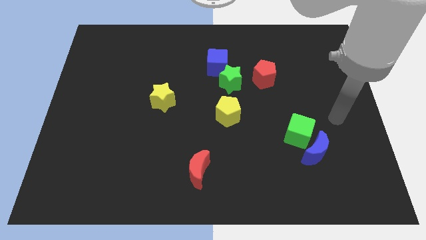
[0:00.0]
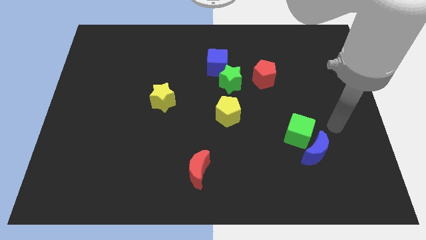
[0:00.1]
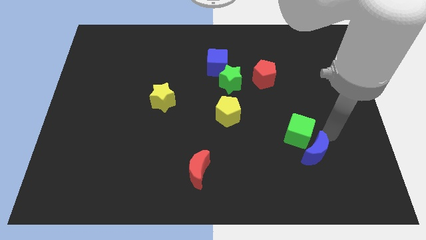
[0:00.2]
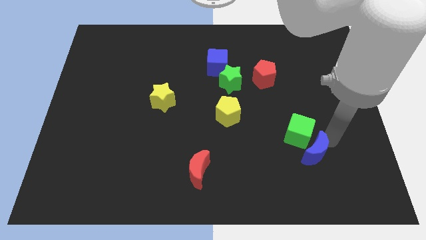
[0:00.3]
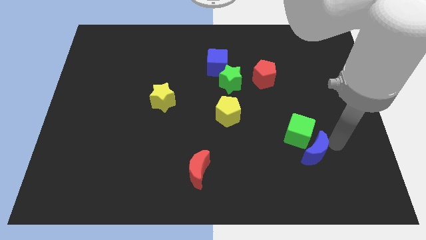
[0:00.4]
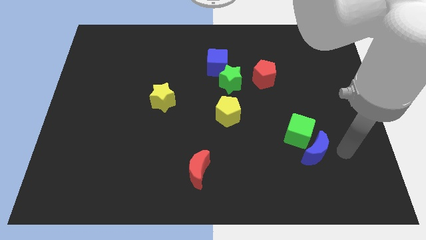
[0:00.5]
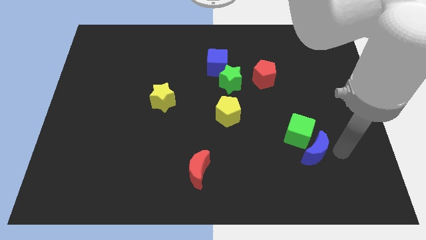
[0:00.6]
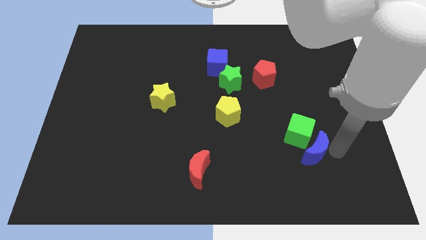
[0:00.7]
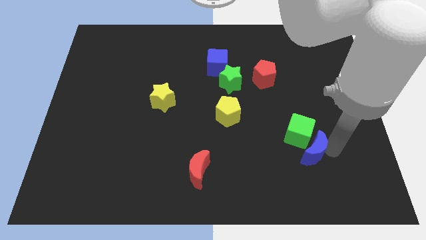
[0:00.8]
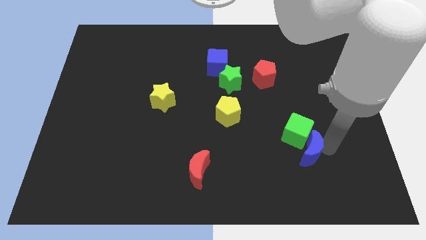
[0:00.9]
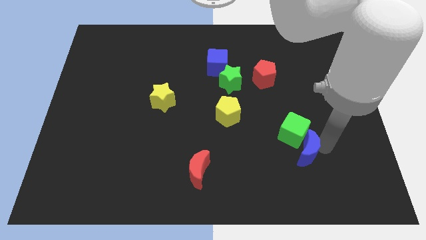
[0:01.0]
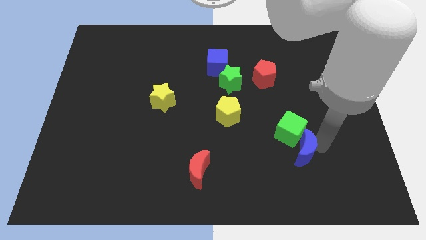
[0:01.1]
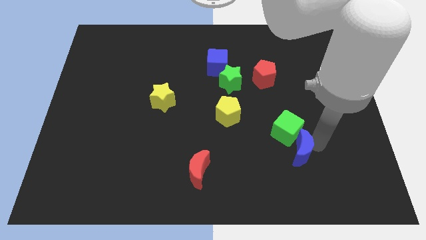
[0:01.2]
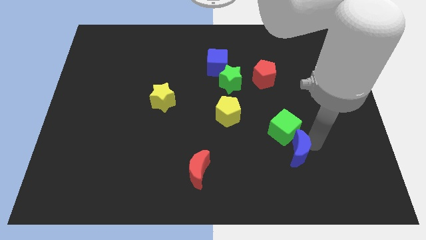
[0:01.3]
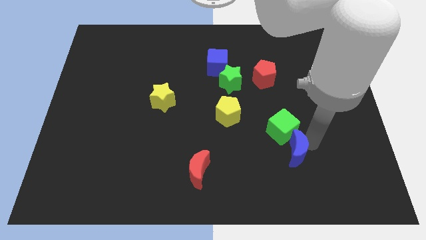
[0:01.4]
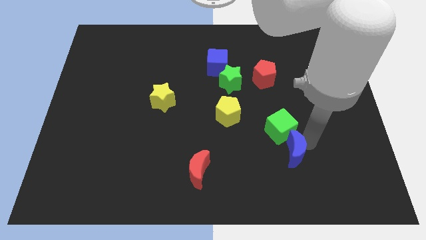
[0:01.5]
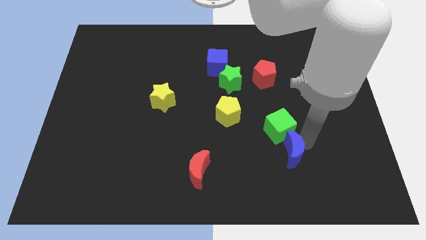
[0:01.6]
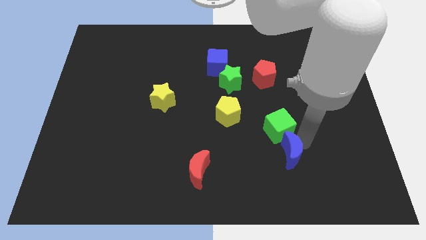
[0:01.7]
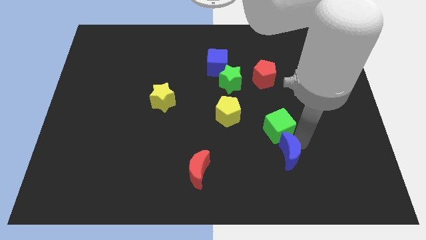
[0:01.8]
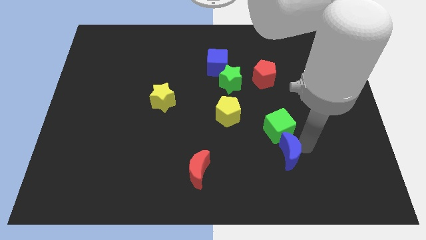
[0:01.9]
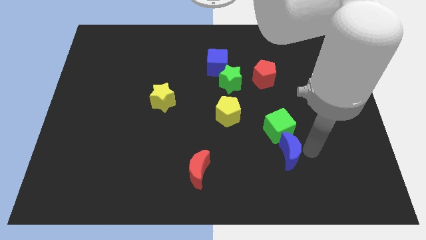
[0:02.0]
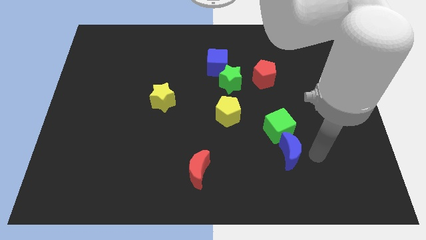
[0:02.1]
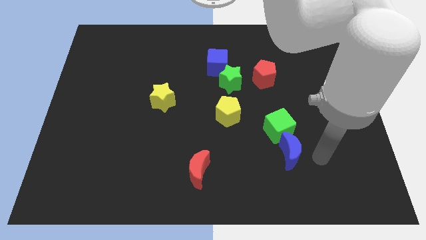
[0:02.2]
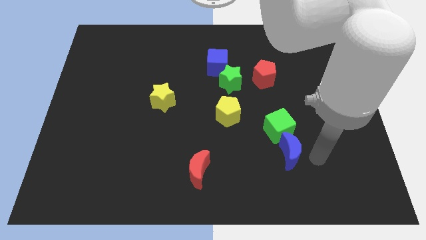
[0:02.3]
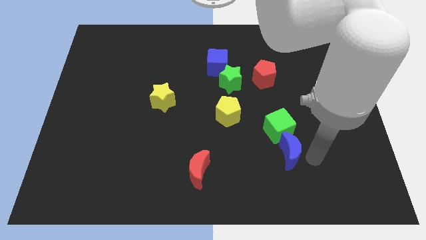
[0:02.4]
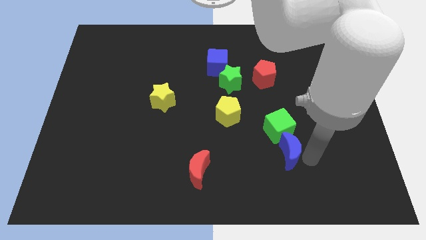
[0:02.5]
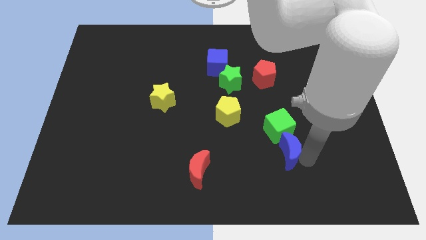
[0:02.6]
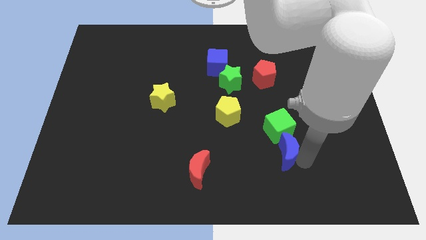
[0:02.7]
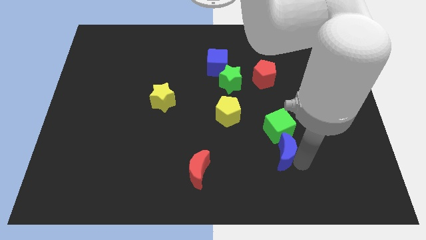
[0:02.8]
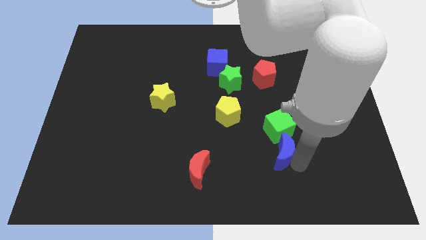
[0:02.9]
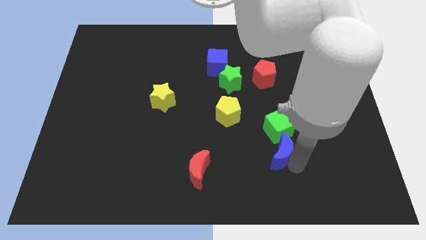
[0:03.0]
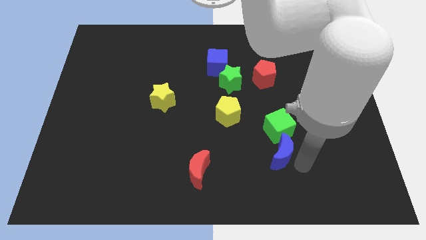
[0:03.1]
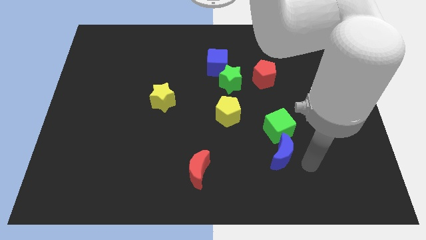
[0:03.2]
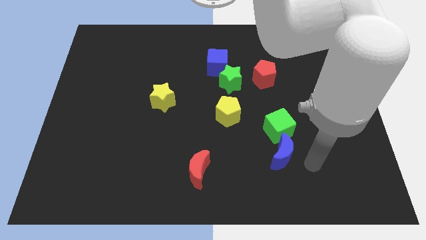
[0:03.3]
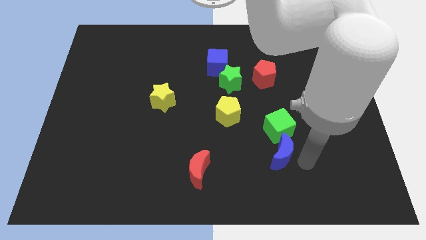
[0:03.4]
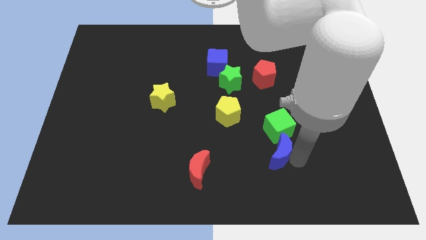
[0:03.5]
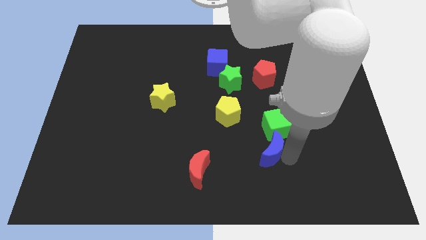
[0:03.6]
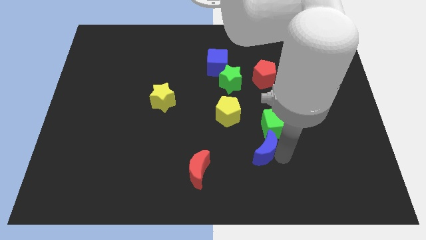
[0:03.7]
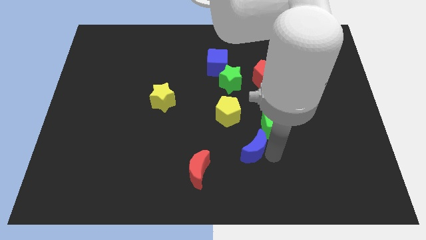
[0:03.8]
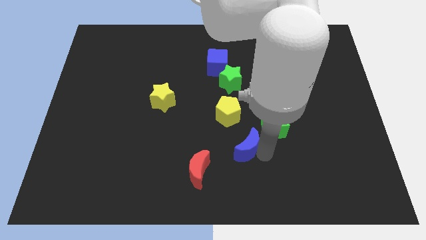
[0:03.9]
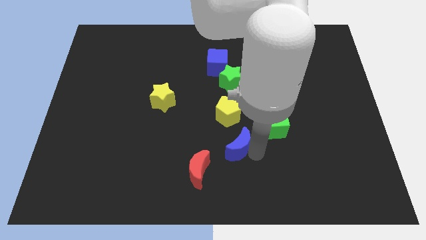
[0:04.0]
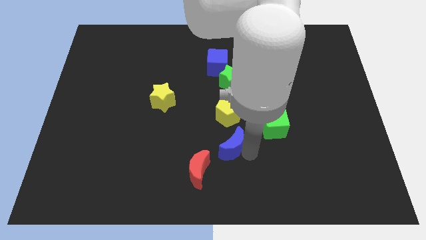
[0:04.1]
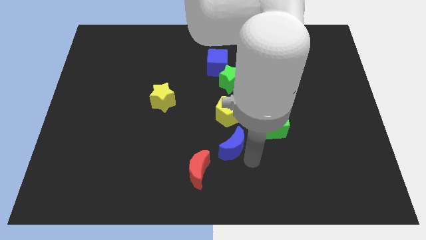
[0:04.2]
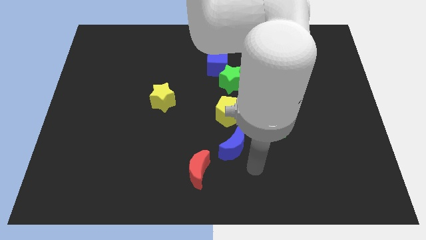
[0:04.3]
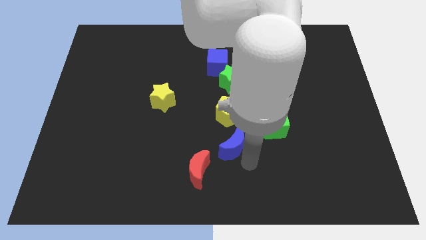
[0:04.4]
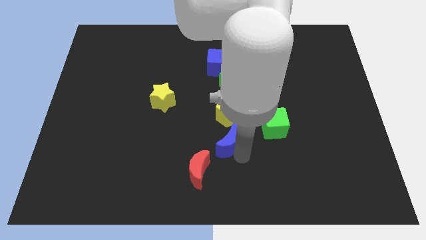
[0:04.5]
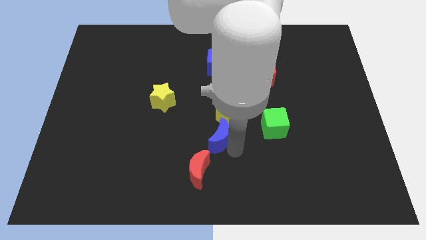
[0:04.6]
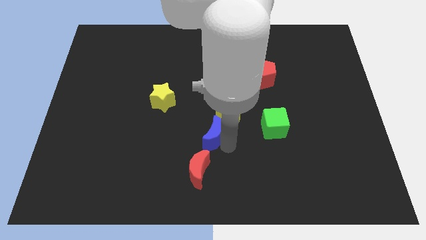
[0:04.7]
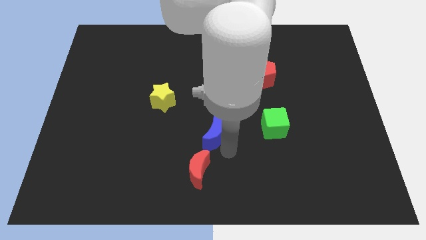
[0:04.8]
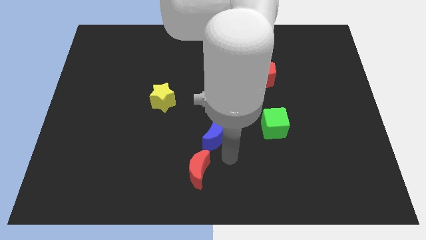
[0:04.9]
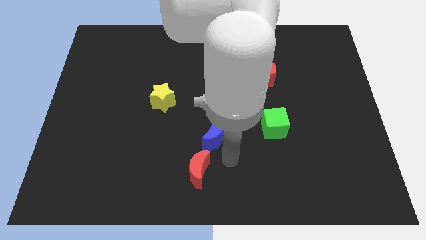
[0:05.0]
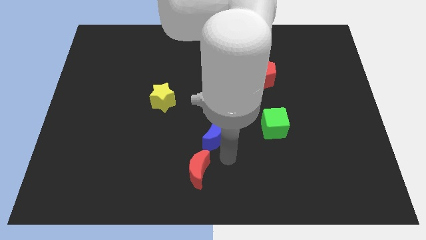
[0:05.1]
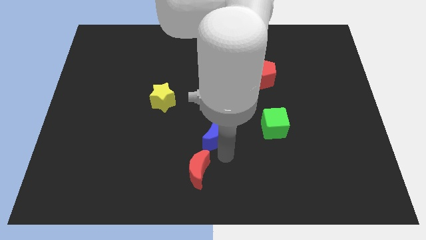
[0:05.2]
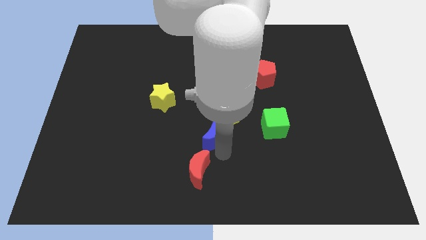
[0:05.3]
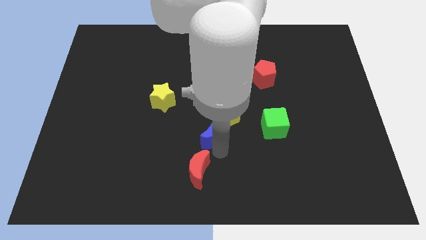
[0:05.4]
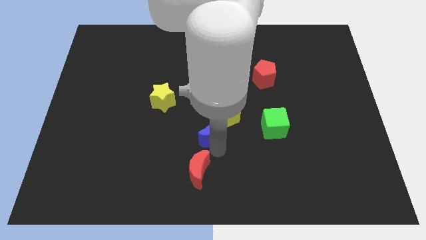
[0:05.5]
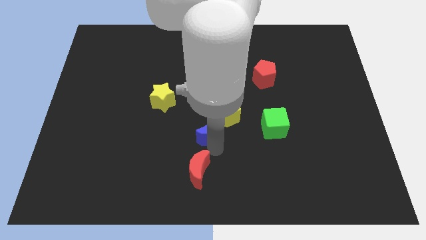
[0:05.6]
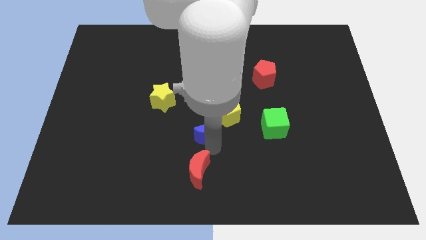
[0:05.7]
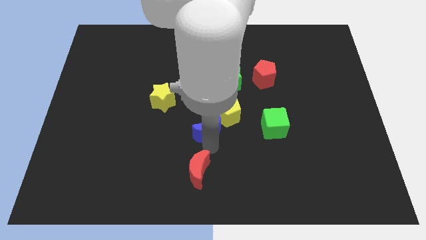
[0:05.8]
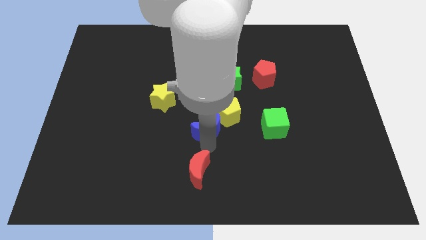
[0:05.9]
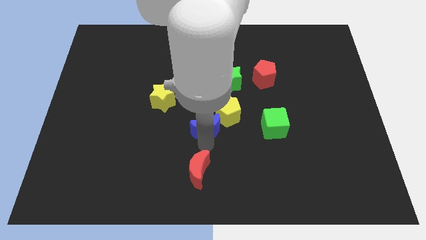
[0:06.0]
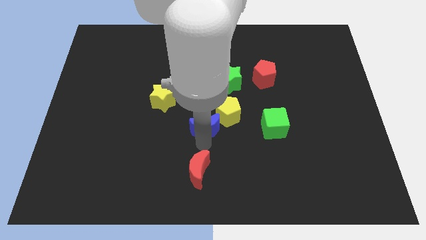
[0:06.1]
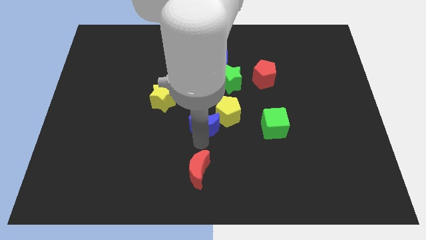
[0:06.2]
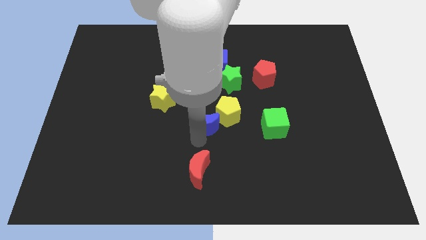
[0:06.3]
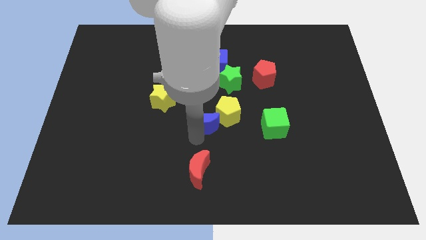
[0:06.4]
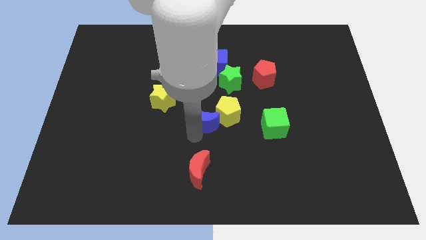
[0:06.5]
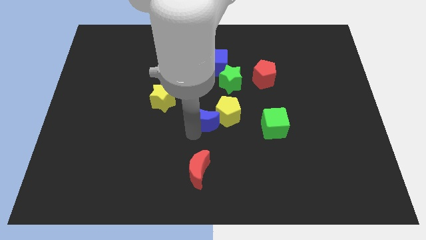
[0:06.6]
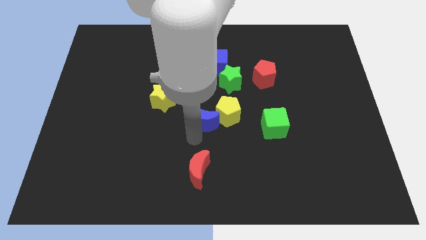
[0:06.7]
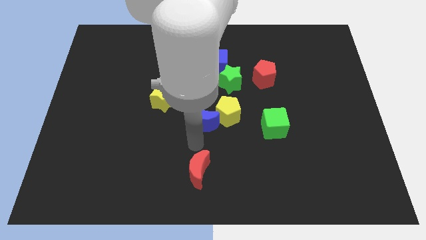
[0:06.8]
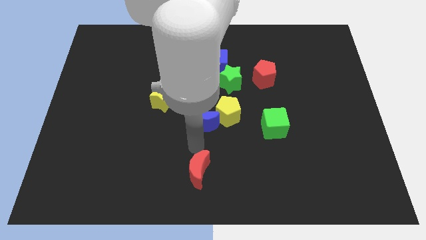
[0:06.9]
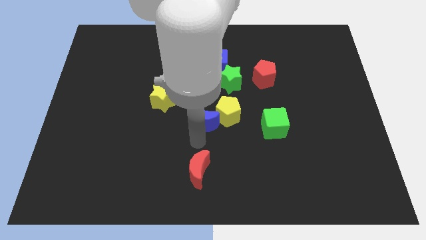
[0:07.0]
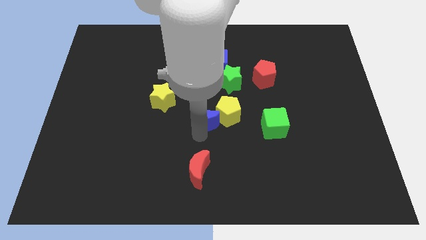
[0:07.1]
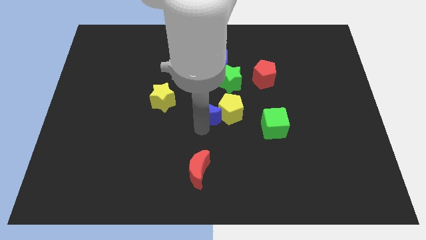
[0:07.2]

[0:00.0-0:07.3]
move the blue moon diagonally down and to the left of the green star
